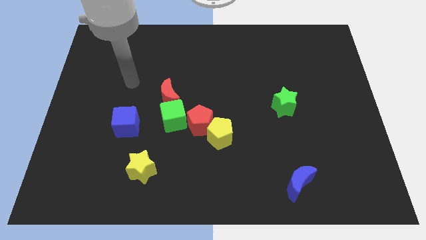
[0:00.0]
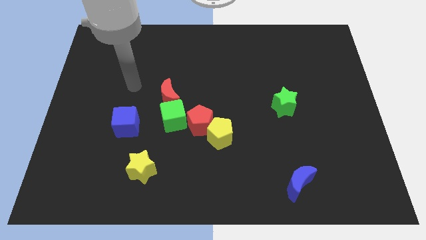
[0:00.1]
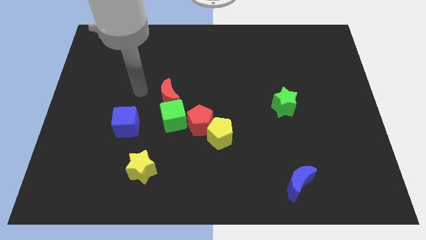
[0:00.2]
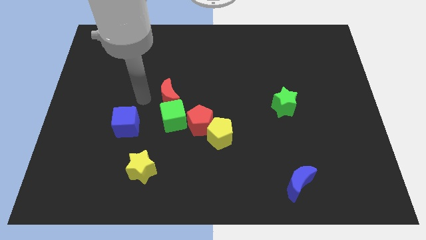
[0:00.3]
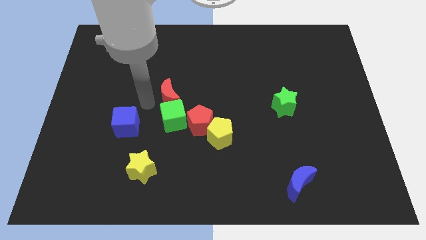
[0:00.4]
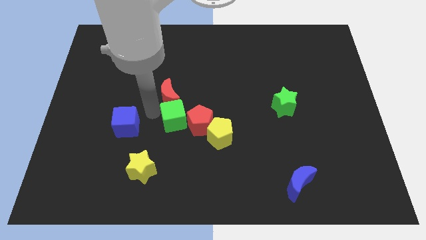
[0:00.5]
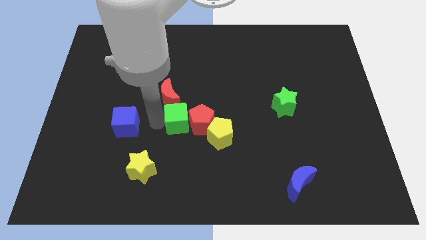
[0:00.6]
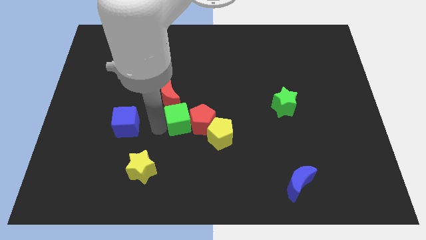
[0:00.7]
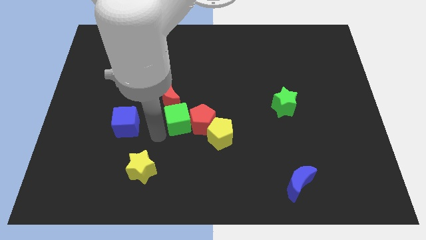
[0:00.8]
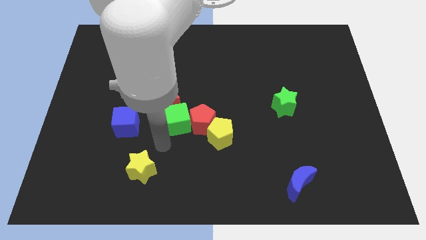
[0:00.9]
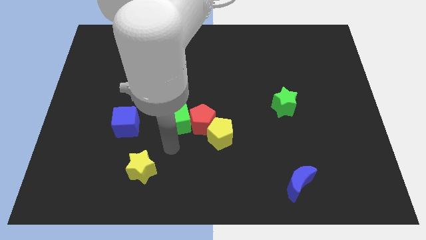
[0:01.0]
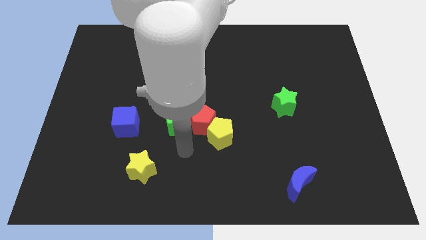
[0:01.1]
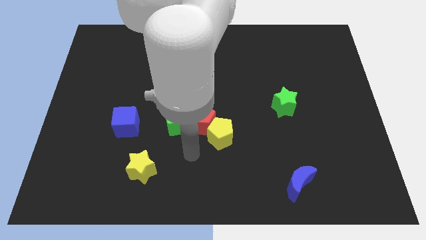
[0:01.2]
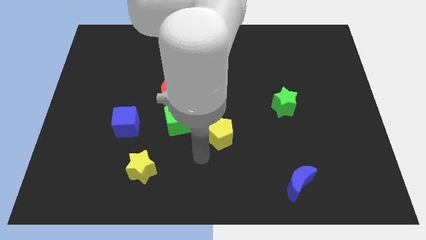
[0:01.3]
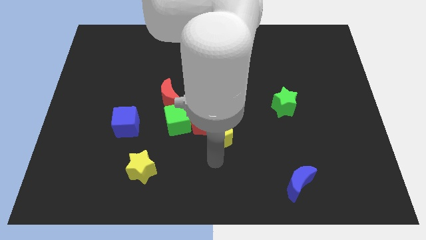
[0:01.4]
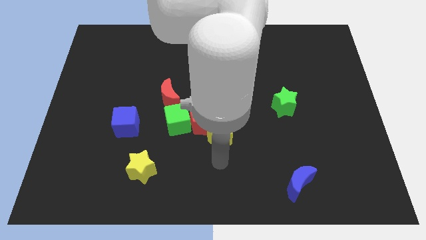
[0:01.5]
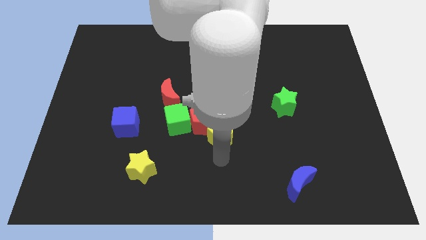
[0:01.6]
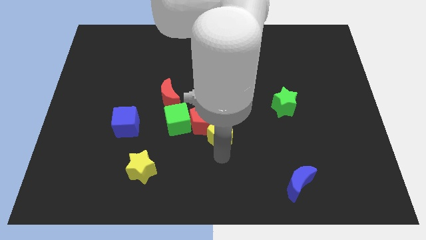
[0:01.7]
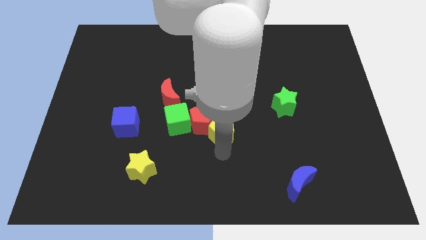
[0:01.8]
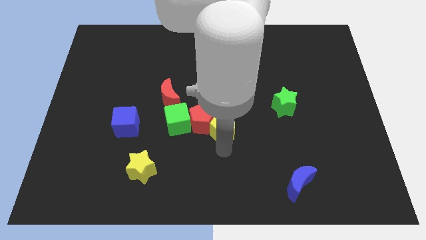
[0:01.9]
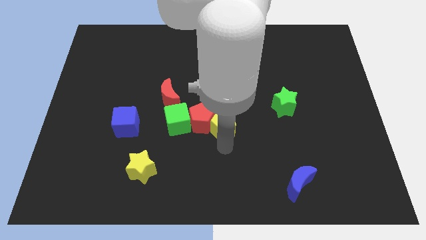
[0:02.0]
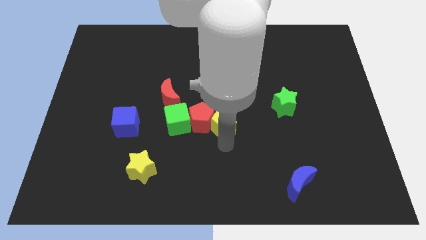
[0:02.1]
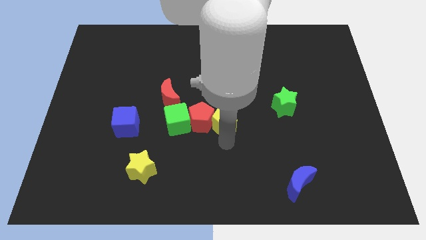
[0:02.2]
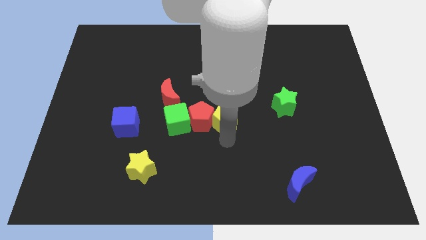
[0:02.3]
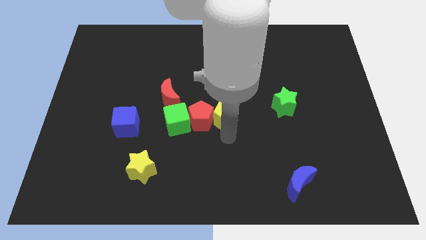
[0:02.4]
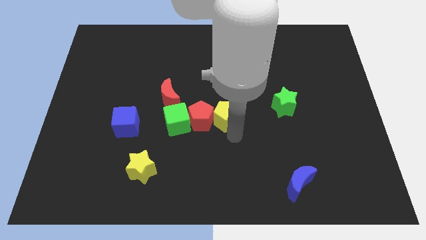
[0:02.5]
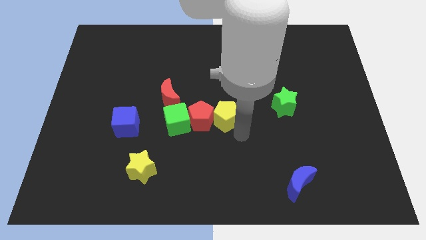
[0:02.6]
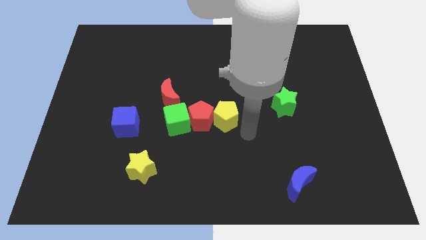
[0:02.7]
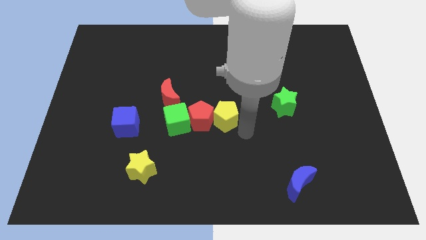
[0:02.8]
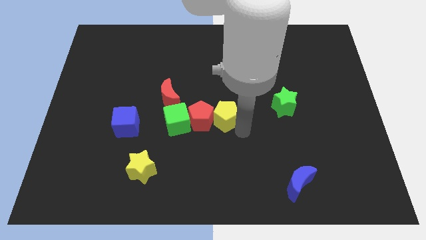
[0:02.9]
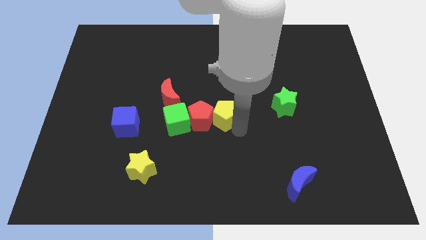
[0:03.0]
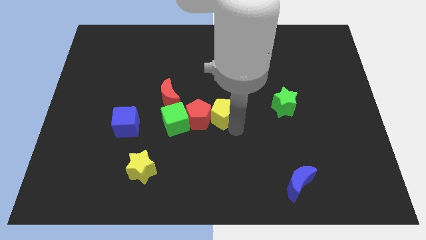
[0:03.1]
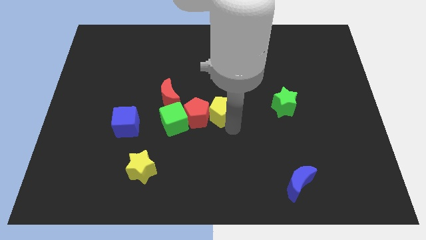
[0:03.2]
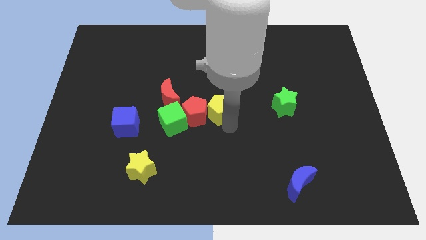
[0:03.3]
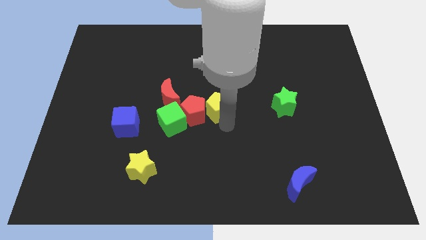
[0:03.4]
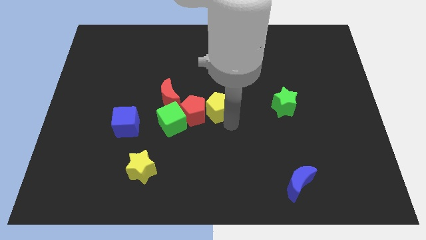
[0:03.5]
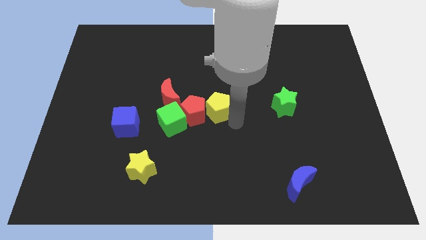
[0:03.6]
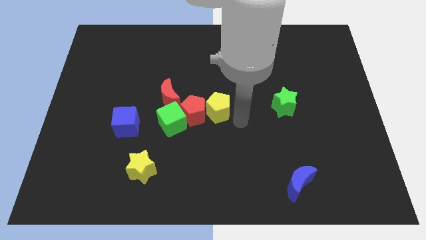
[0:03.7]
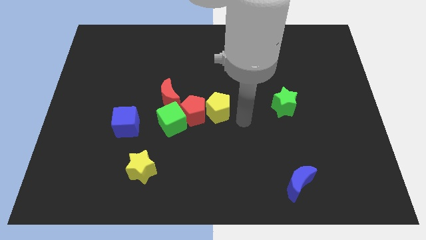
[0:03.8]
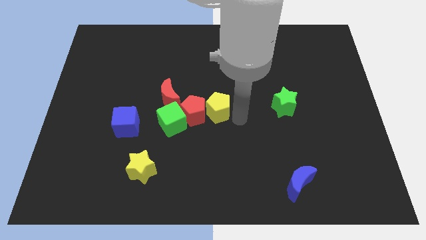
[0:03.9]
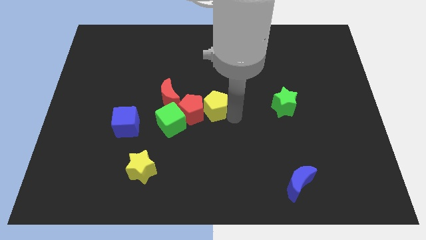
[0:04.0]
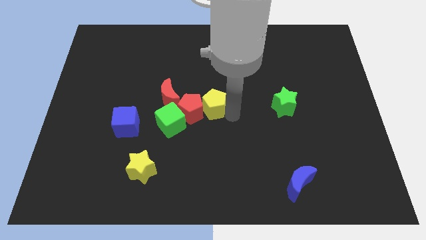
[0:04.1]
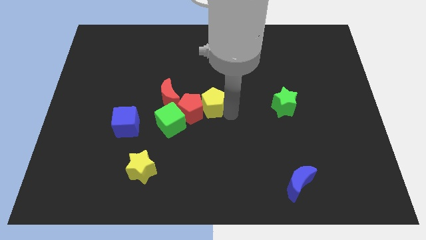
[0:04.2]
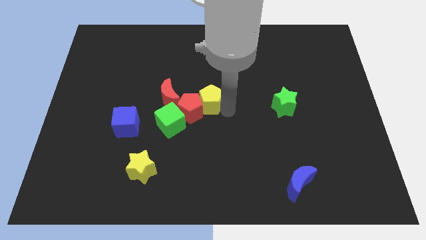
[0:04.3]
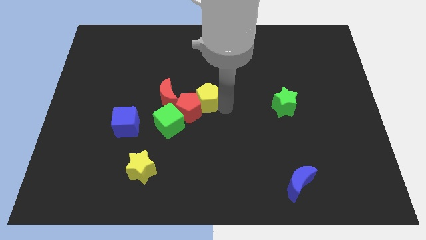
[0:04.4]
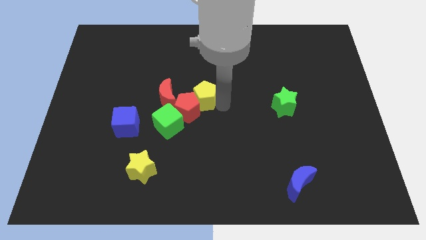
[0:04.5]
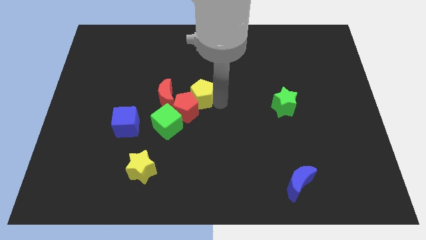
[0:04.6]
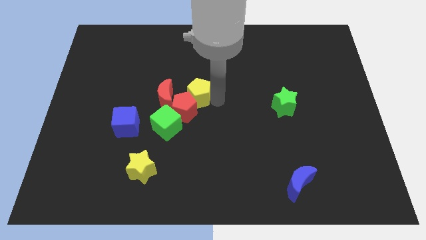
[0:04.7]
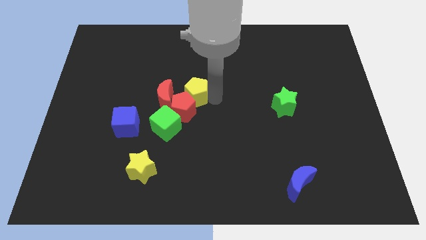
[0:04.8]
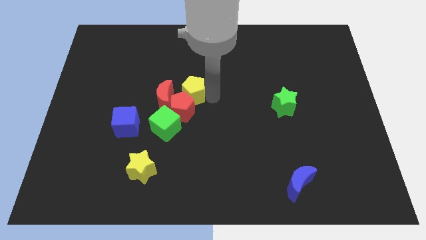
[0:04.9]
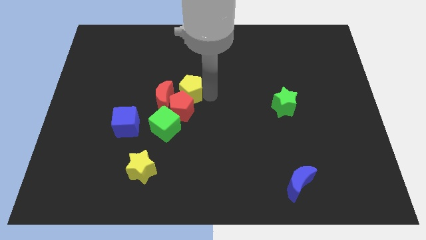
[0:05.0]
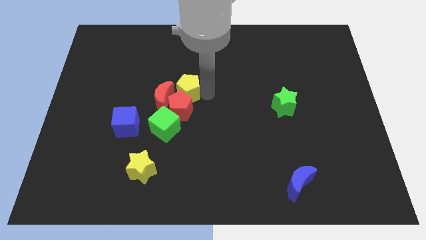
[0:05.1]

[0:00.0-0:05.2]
put the yellow pentagon to the top side of the green cube

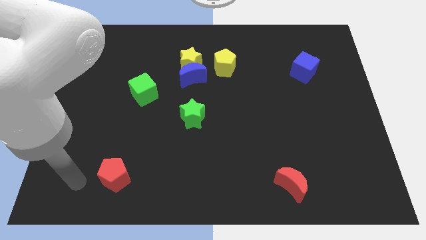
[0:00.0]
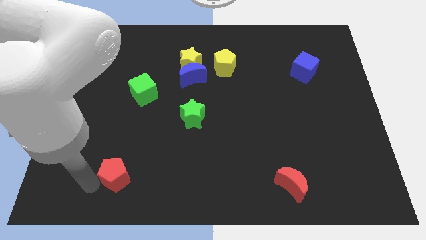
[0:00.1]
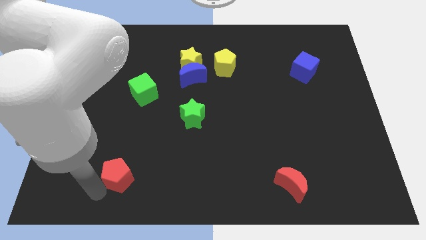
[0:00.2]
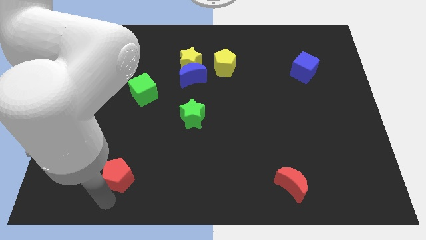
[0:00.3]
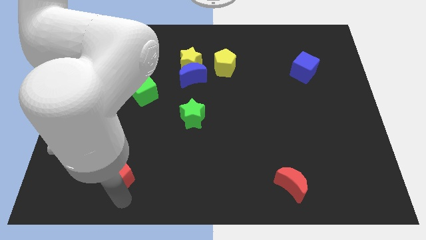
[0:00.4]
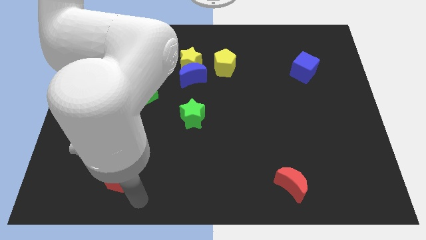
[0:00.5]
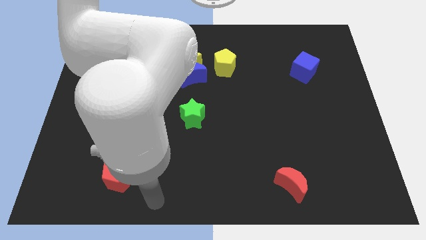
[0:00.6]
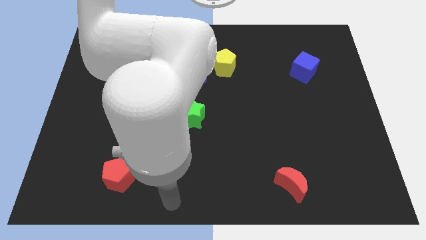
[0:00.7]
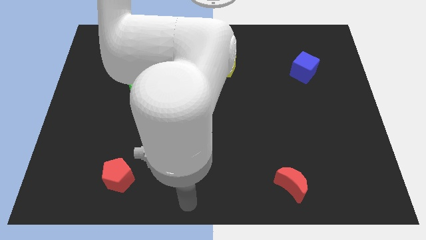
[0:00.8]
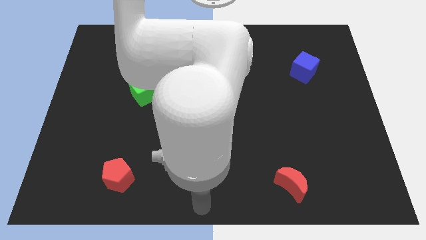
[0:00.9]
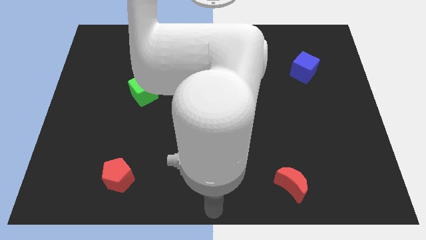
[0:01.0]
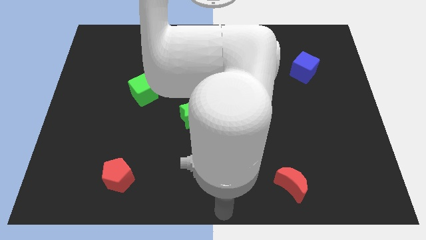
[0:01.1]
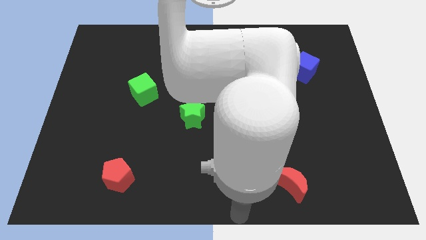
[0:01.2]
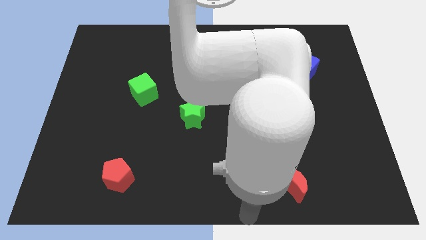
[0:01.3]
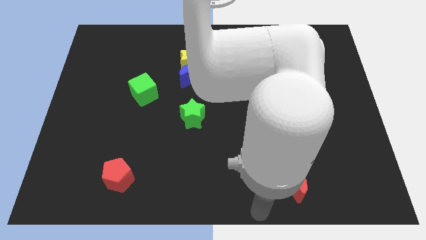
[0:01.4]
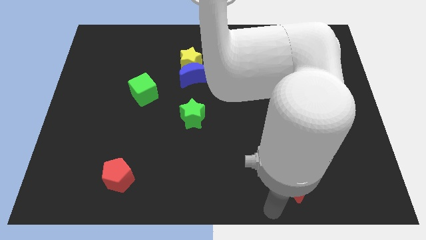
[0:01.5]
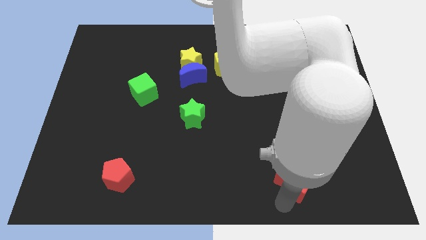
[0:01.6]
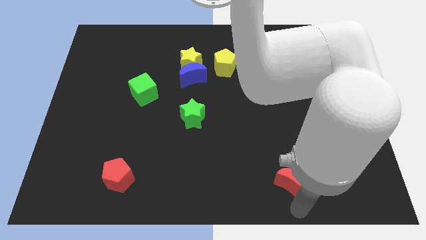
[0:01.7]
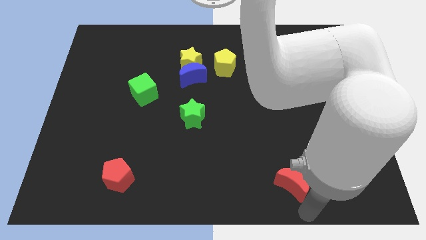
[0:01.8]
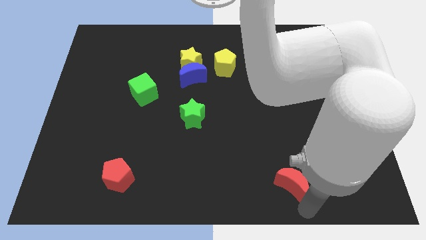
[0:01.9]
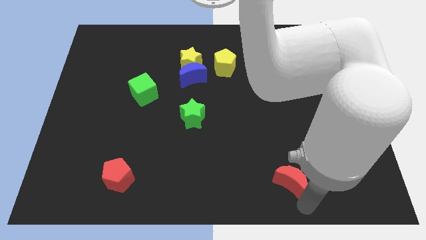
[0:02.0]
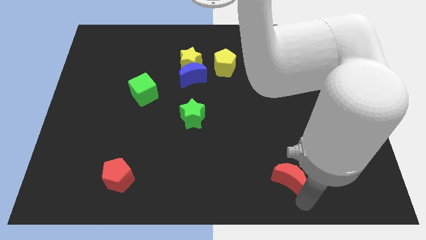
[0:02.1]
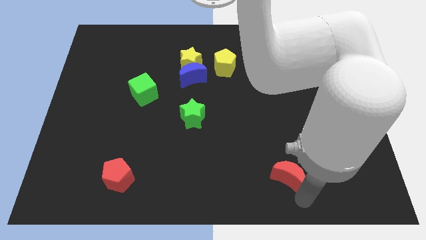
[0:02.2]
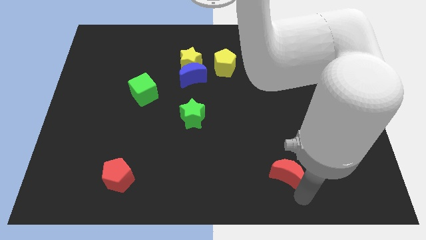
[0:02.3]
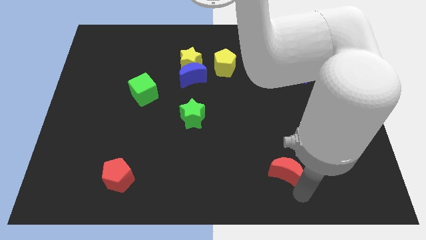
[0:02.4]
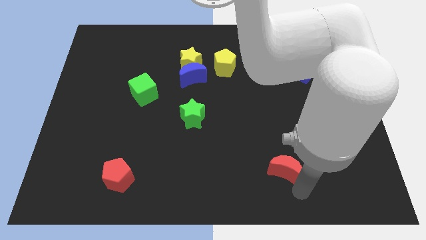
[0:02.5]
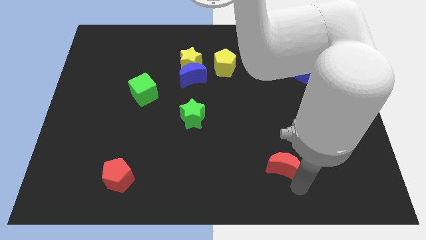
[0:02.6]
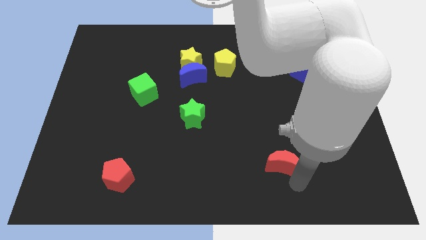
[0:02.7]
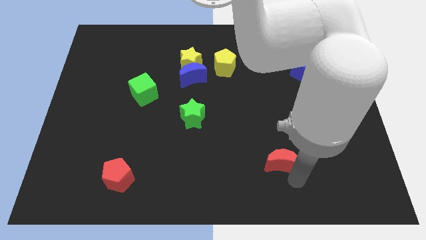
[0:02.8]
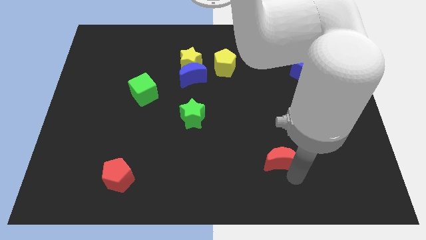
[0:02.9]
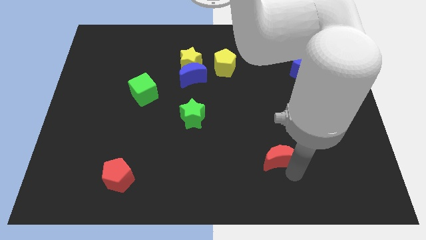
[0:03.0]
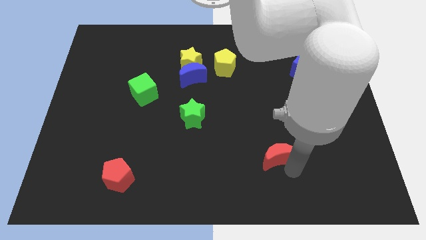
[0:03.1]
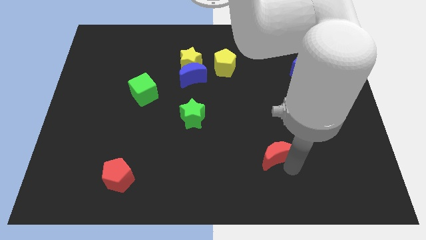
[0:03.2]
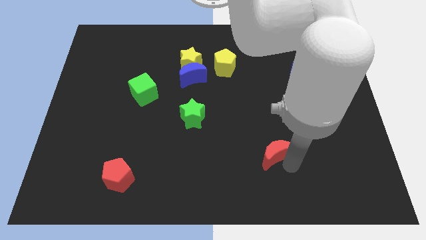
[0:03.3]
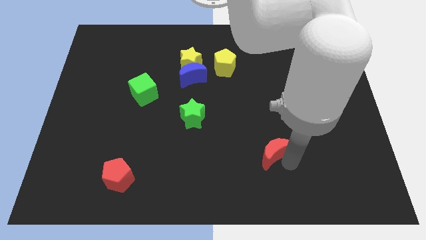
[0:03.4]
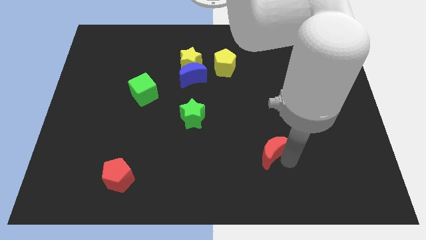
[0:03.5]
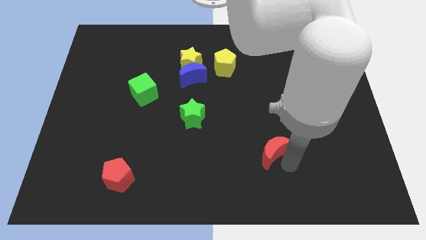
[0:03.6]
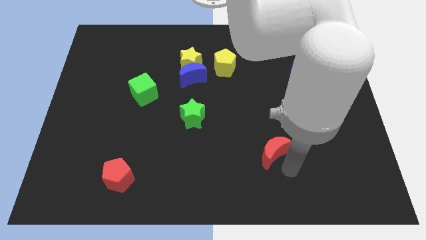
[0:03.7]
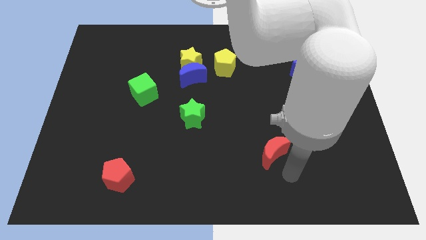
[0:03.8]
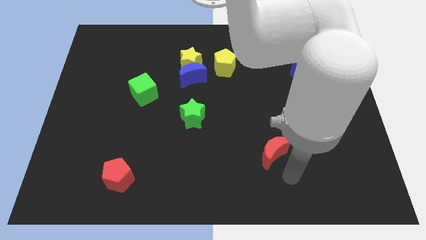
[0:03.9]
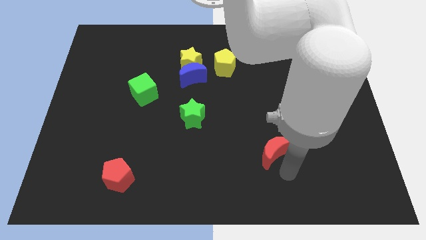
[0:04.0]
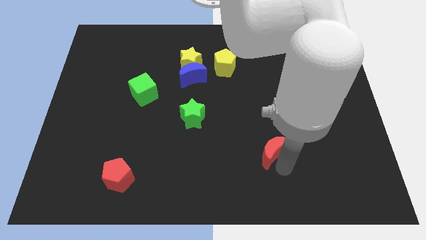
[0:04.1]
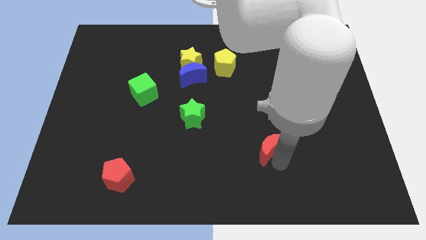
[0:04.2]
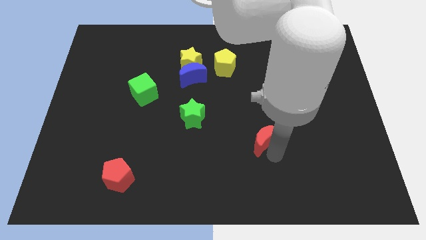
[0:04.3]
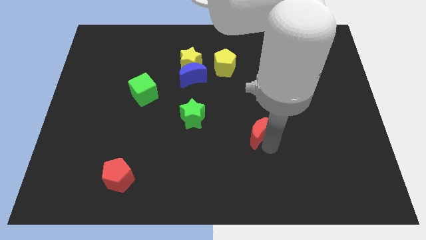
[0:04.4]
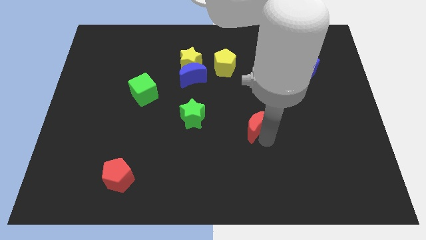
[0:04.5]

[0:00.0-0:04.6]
move the red moon to the right of the green star
